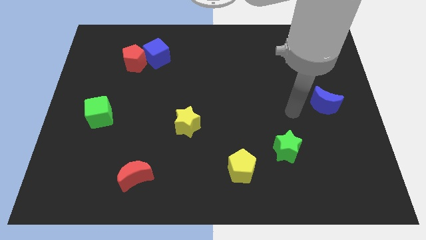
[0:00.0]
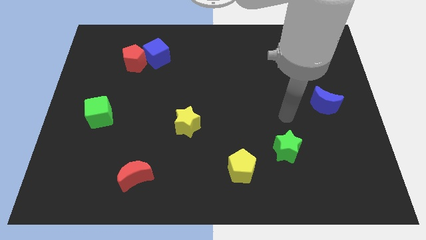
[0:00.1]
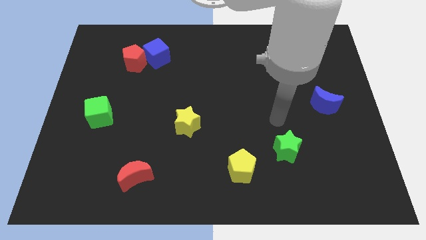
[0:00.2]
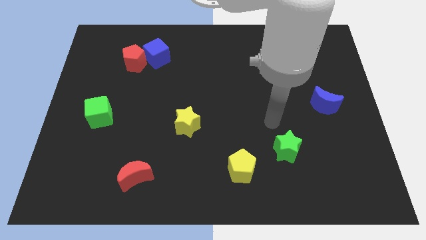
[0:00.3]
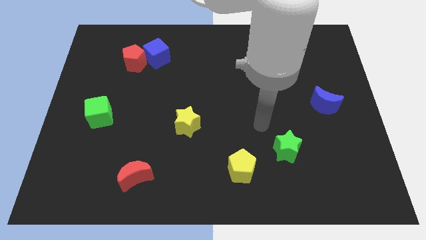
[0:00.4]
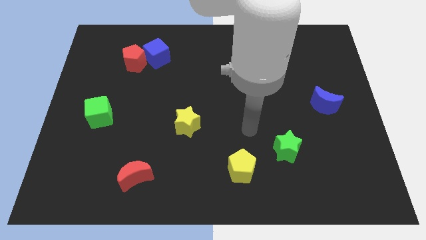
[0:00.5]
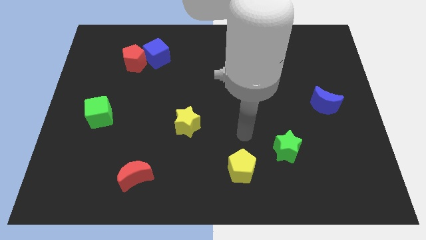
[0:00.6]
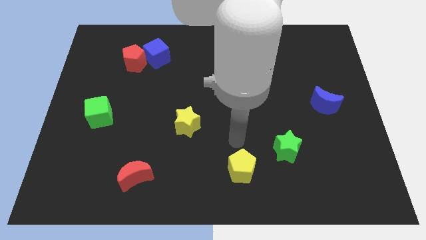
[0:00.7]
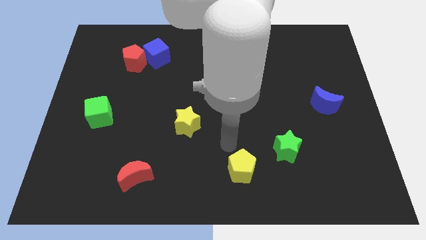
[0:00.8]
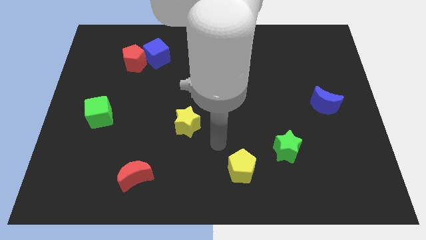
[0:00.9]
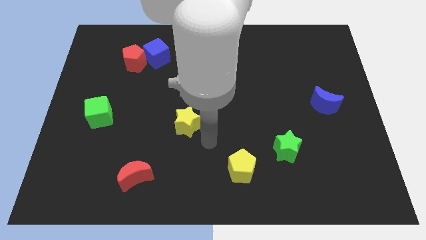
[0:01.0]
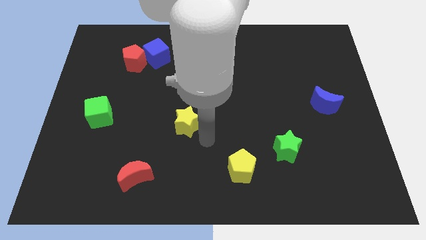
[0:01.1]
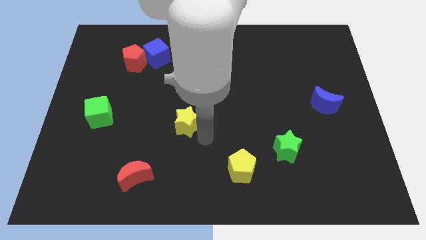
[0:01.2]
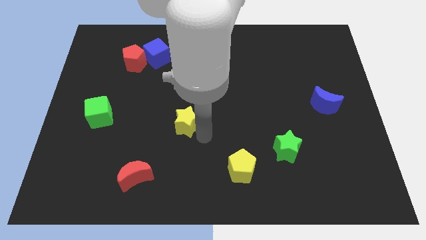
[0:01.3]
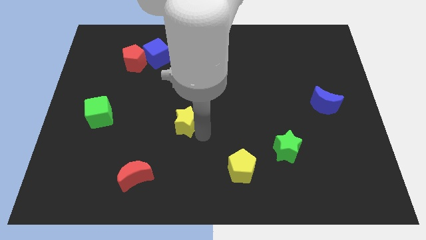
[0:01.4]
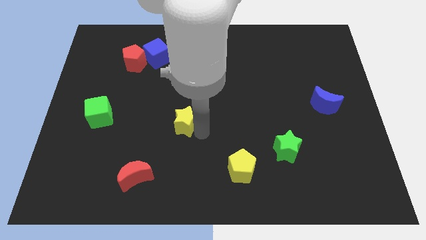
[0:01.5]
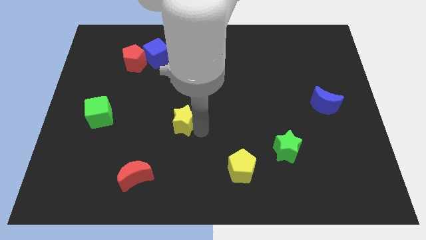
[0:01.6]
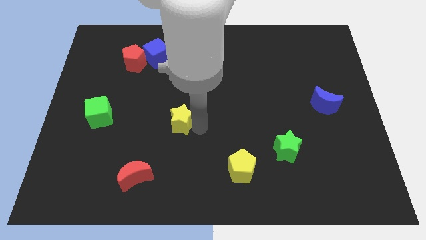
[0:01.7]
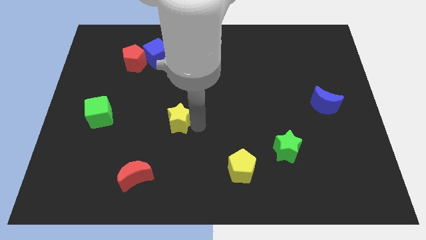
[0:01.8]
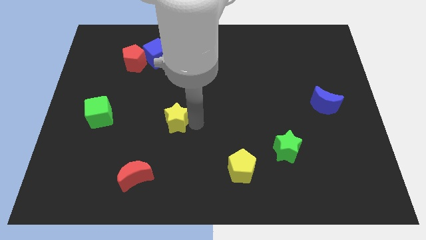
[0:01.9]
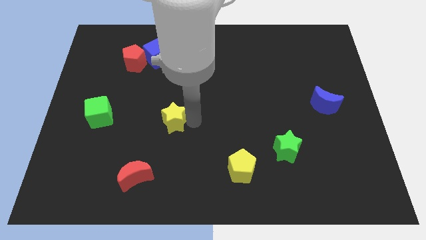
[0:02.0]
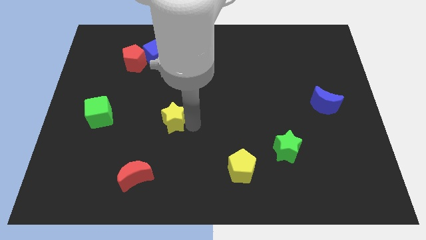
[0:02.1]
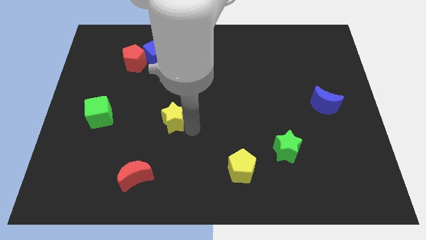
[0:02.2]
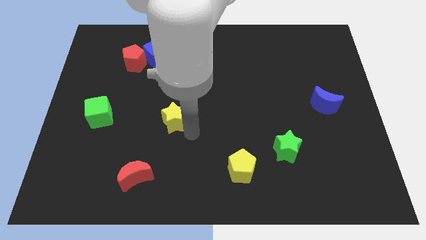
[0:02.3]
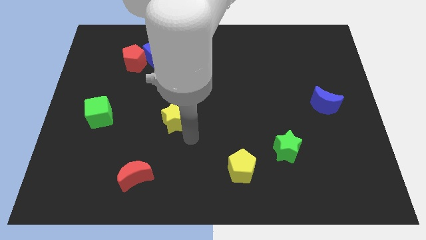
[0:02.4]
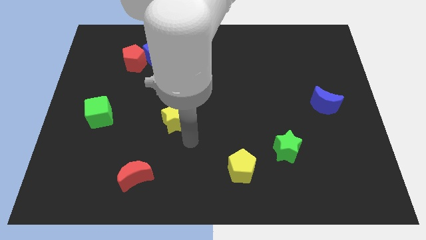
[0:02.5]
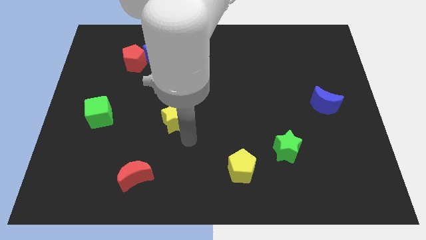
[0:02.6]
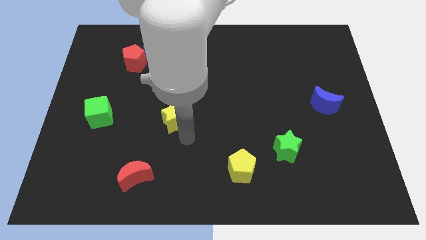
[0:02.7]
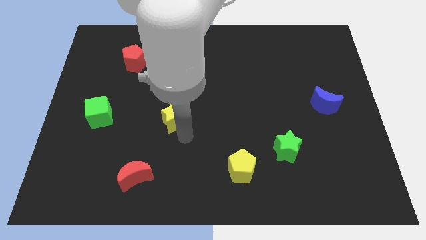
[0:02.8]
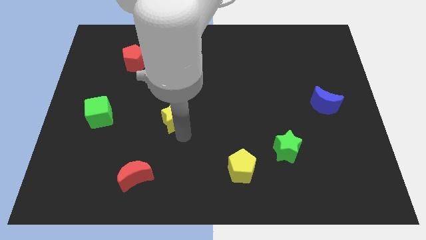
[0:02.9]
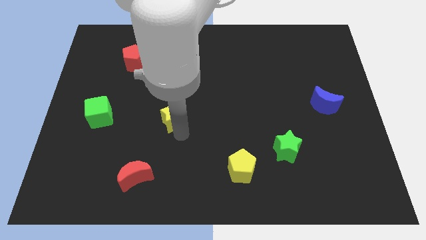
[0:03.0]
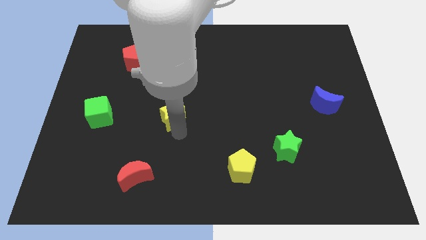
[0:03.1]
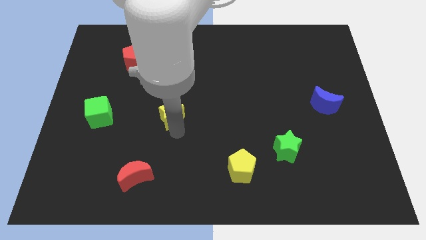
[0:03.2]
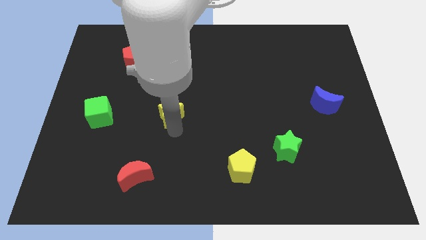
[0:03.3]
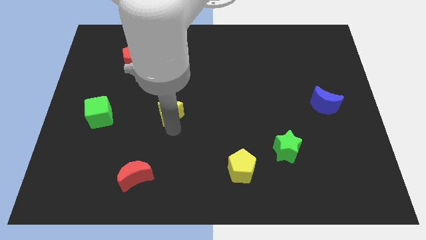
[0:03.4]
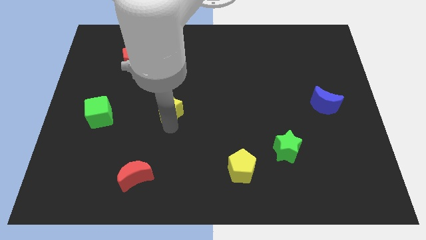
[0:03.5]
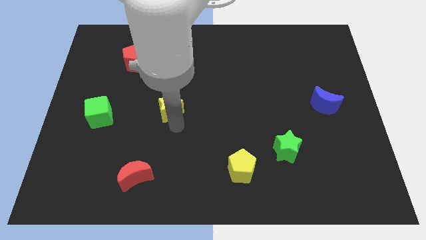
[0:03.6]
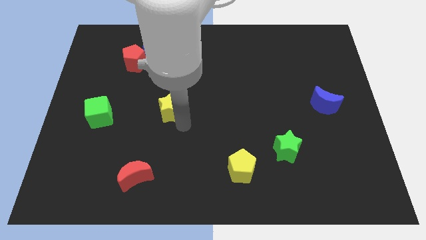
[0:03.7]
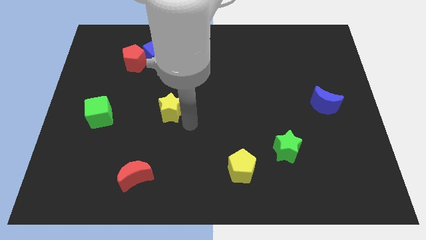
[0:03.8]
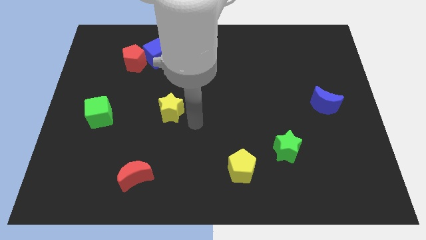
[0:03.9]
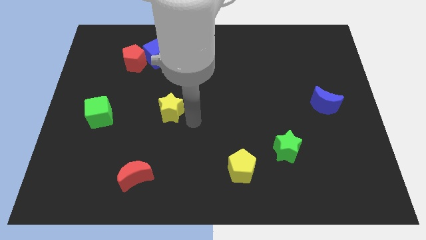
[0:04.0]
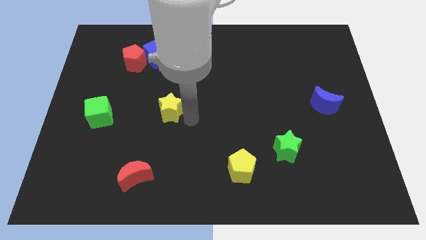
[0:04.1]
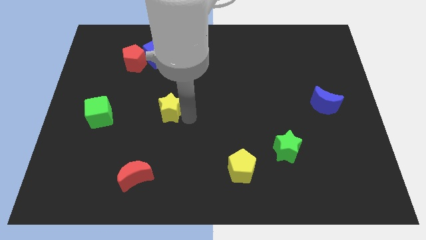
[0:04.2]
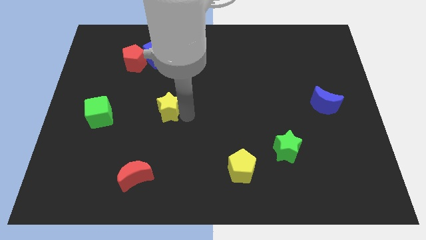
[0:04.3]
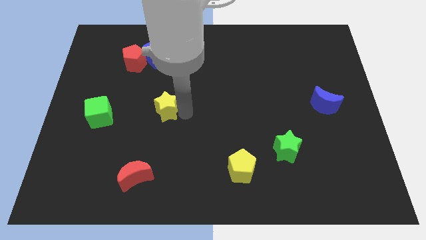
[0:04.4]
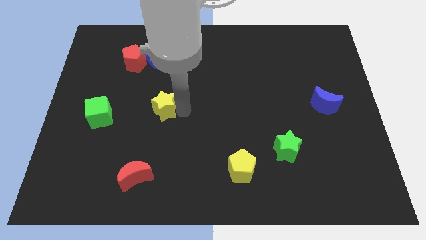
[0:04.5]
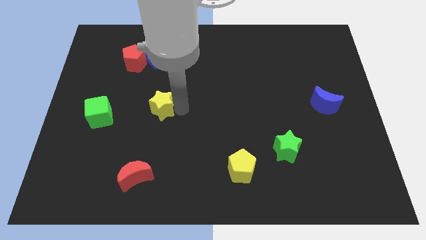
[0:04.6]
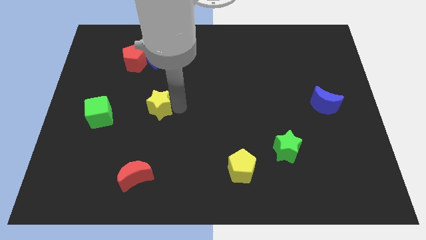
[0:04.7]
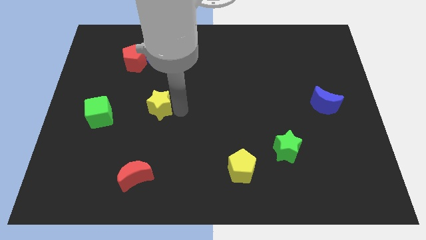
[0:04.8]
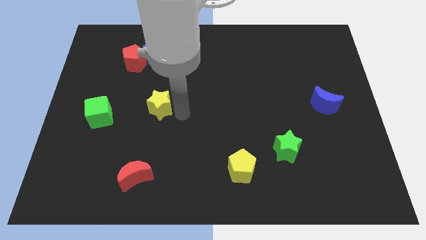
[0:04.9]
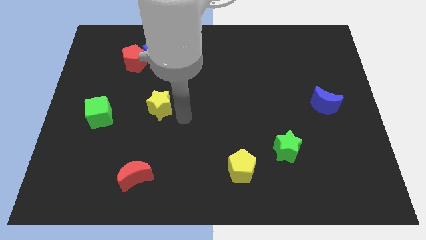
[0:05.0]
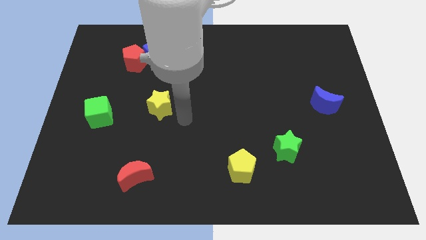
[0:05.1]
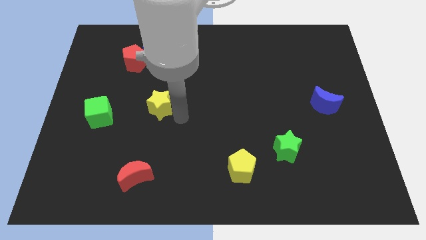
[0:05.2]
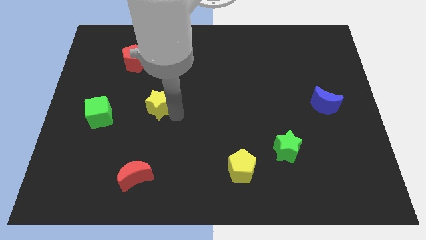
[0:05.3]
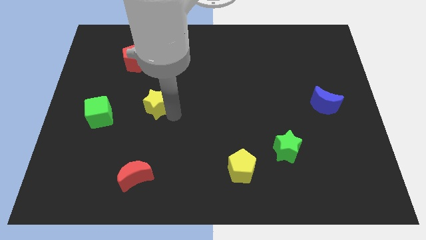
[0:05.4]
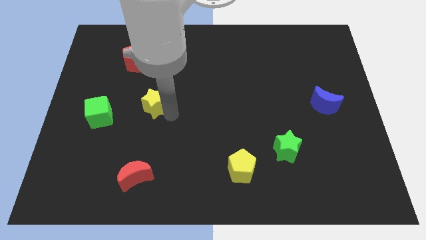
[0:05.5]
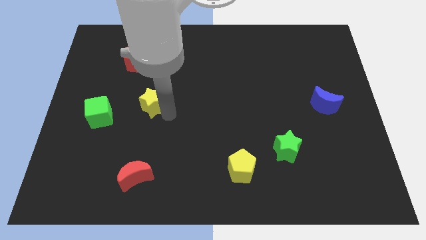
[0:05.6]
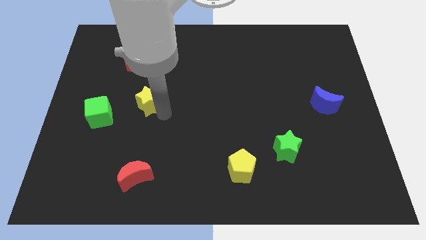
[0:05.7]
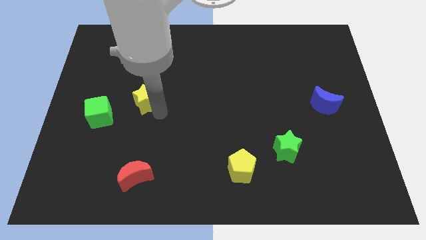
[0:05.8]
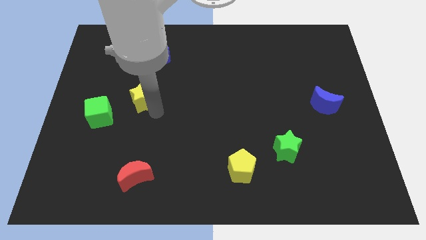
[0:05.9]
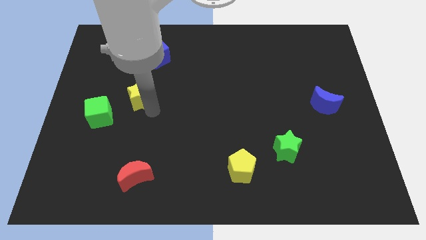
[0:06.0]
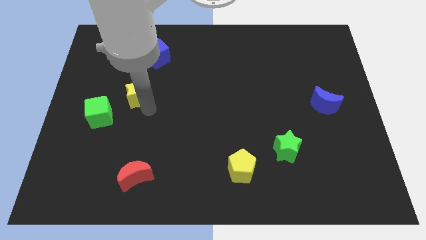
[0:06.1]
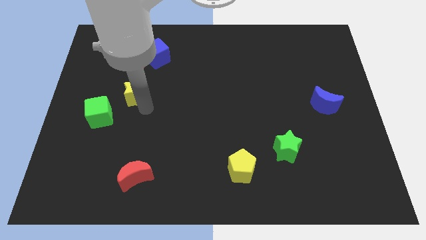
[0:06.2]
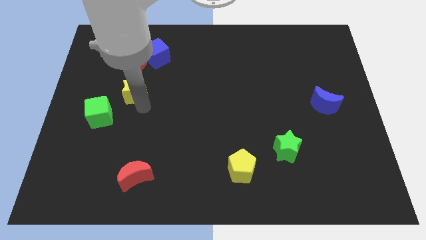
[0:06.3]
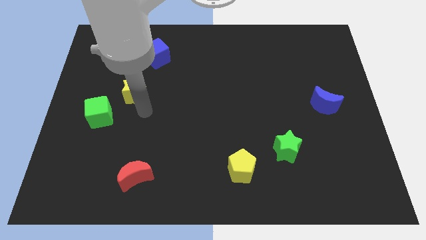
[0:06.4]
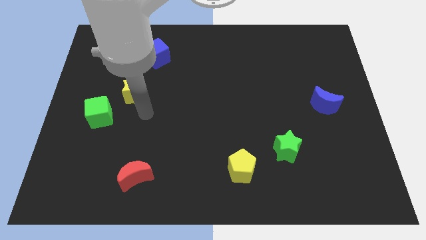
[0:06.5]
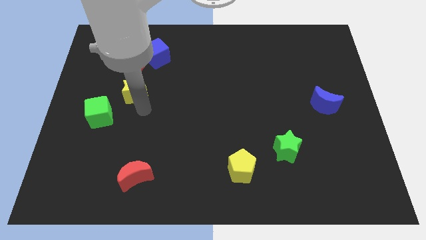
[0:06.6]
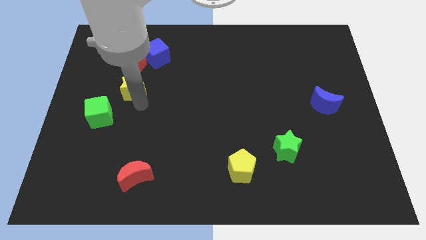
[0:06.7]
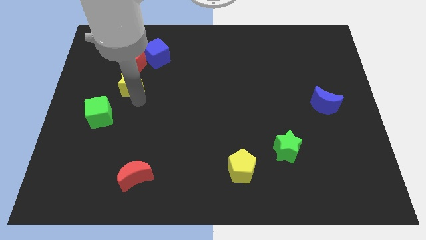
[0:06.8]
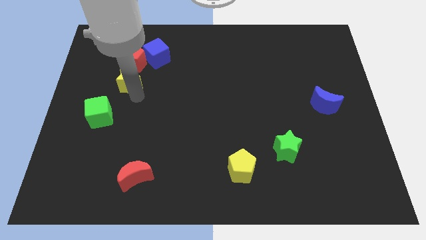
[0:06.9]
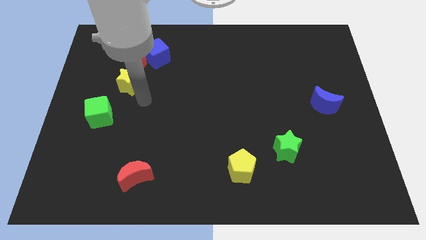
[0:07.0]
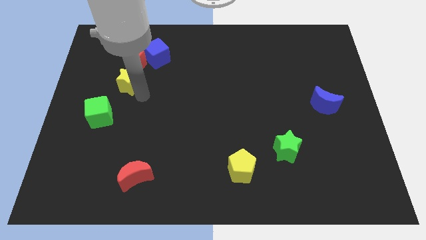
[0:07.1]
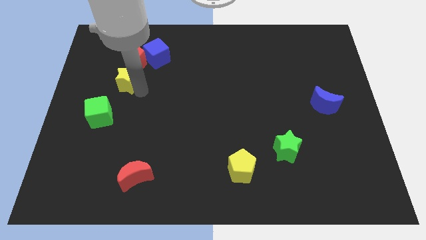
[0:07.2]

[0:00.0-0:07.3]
slide the yellow star up and then to the left

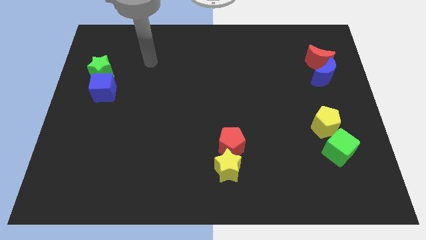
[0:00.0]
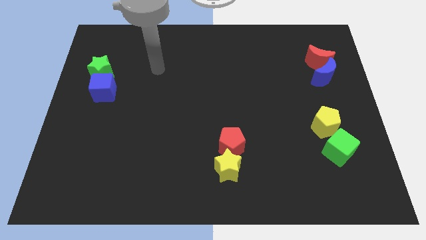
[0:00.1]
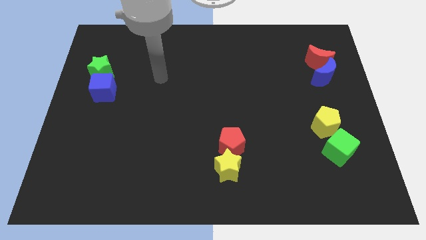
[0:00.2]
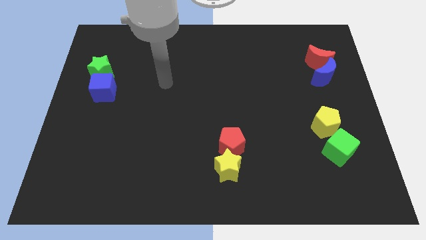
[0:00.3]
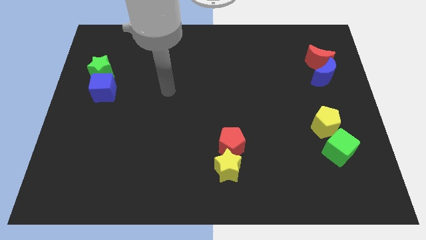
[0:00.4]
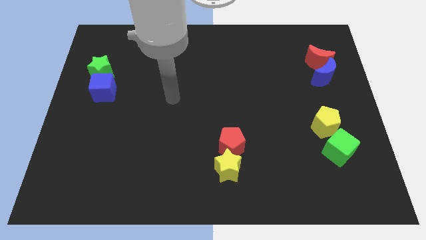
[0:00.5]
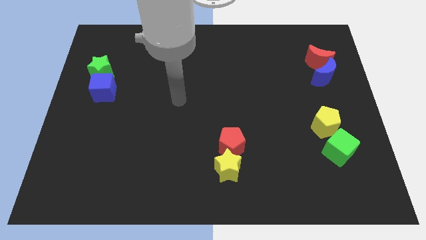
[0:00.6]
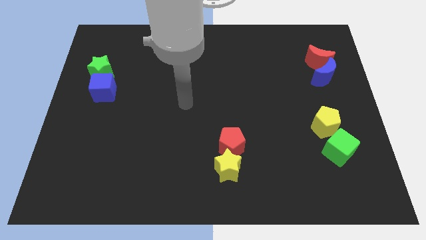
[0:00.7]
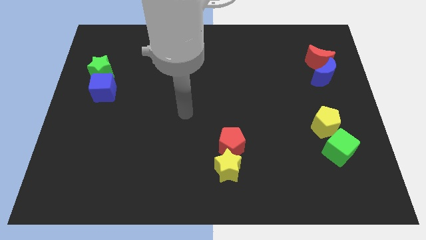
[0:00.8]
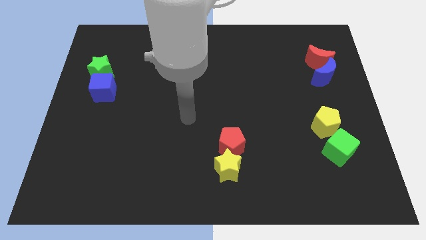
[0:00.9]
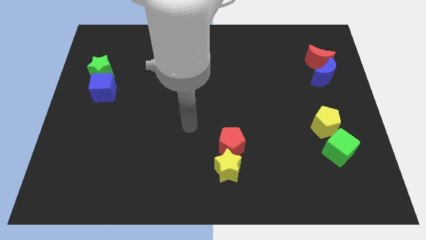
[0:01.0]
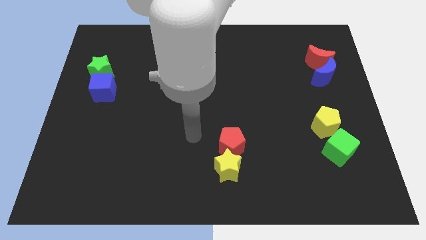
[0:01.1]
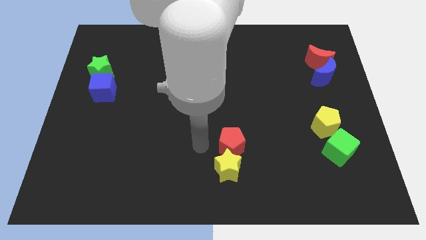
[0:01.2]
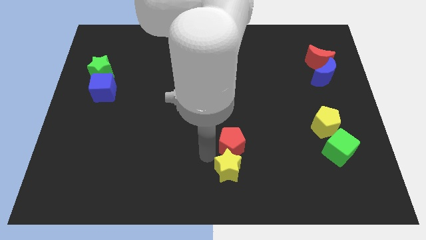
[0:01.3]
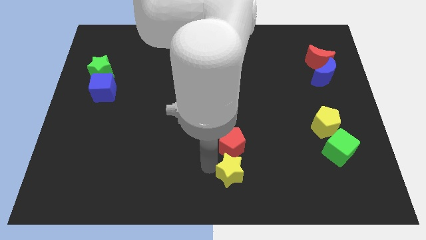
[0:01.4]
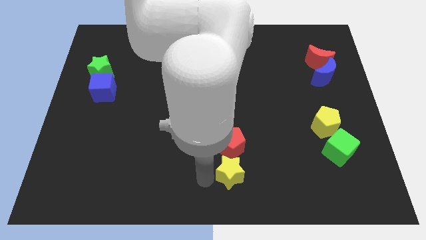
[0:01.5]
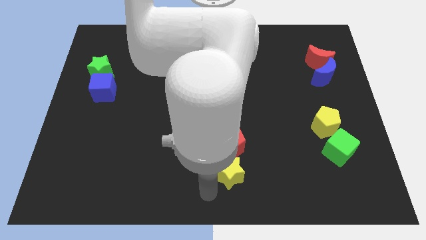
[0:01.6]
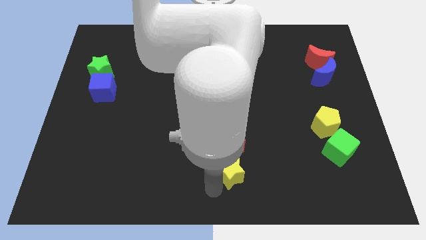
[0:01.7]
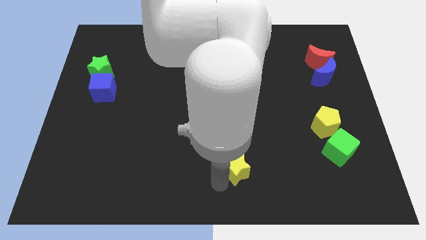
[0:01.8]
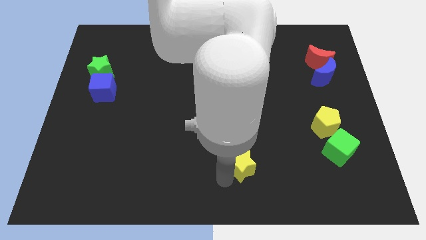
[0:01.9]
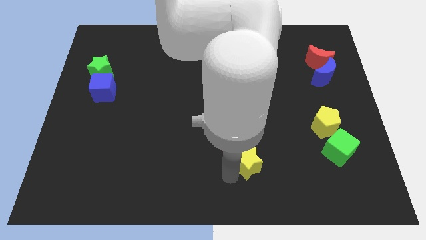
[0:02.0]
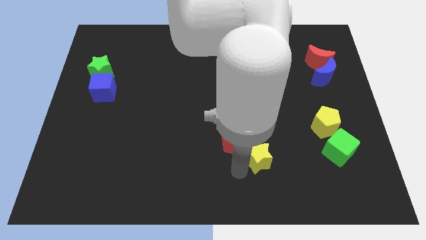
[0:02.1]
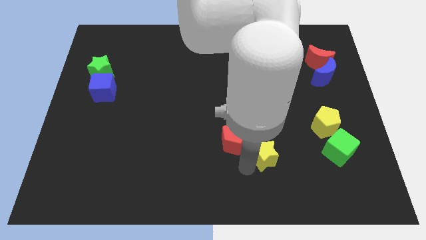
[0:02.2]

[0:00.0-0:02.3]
push the yellow star a bit up and to the right
